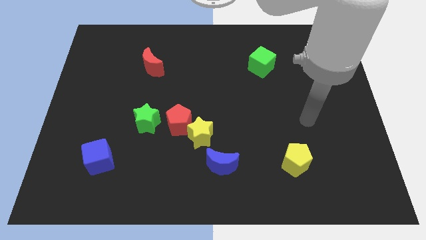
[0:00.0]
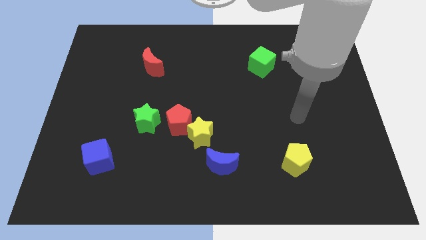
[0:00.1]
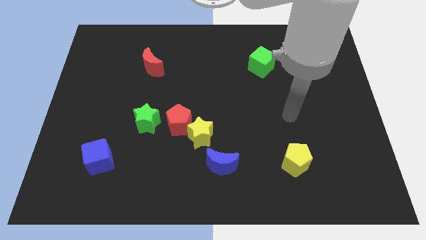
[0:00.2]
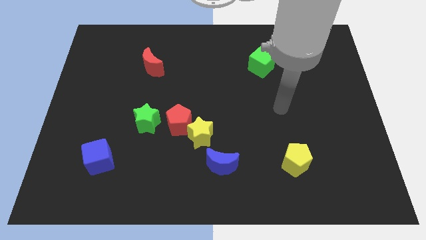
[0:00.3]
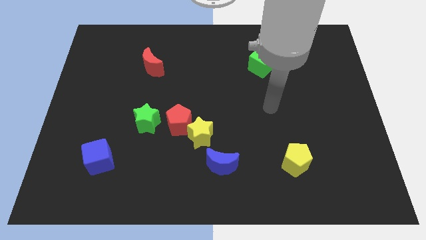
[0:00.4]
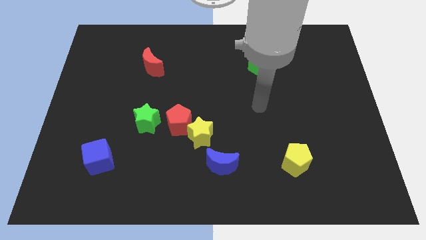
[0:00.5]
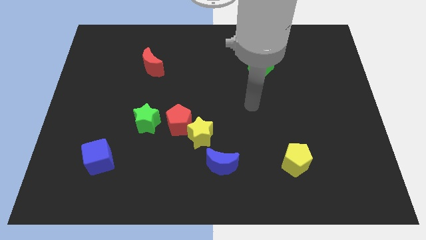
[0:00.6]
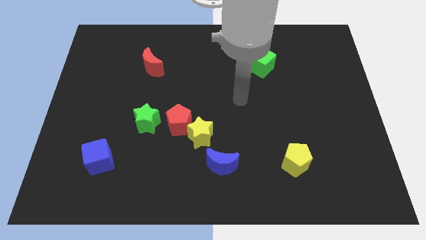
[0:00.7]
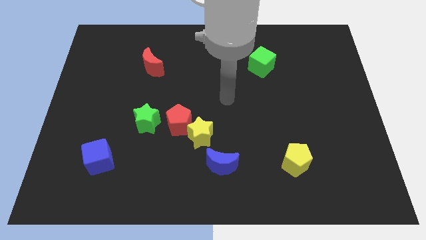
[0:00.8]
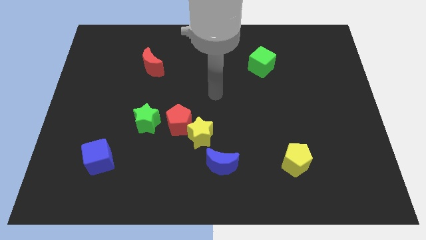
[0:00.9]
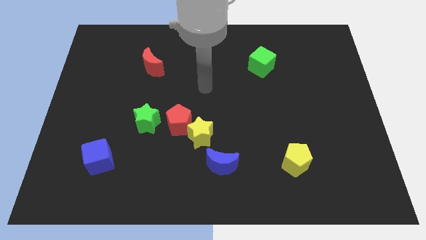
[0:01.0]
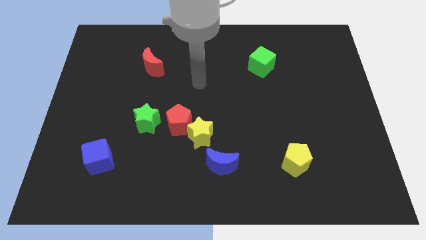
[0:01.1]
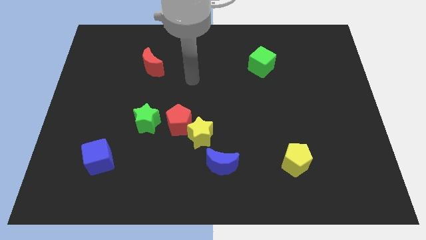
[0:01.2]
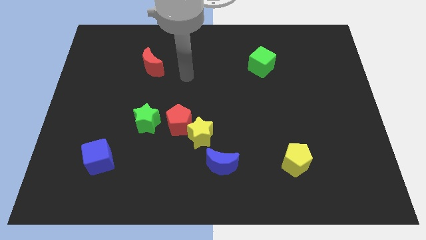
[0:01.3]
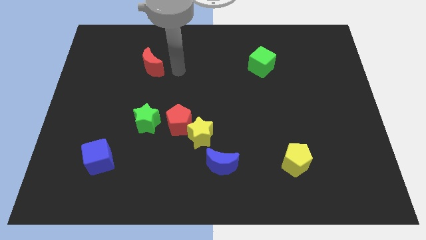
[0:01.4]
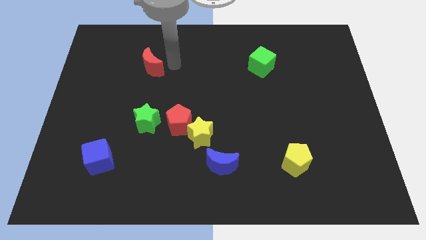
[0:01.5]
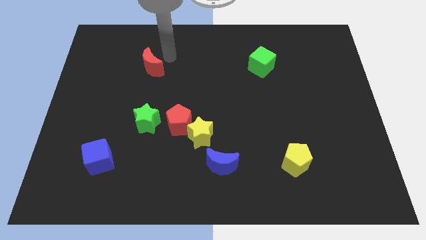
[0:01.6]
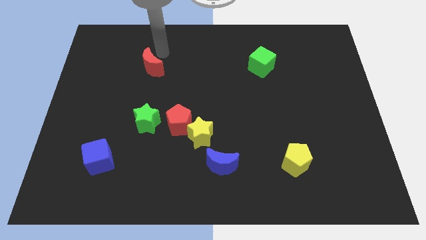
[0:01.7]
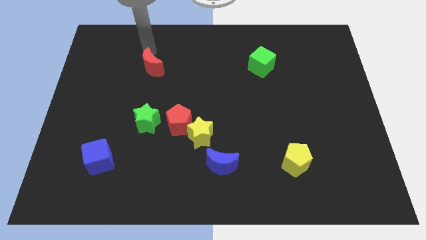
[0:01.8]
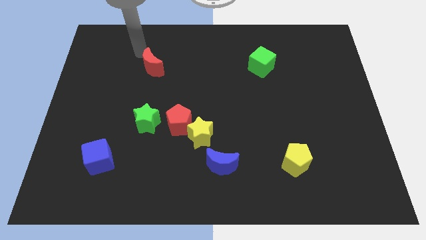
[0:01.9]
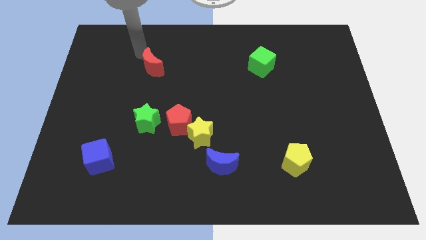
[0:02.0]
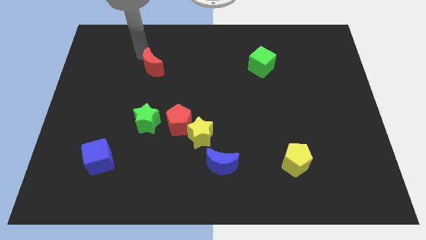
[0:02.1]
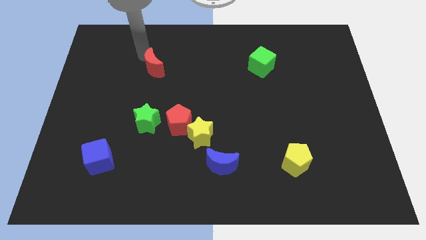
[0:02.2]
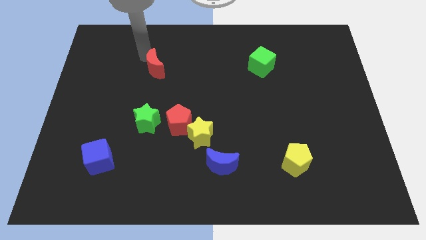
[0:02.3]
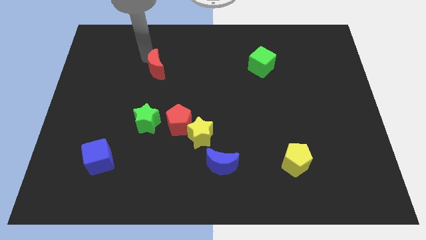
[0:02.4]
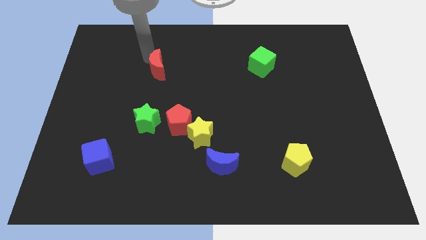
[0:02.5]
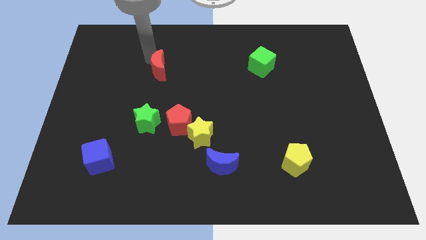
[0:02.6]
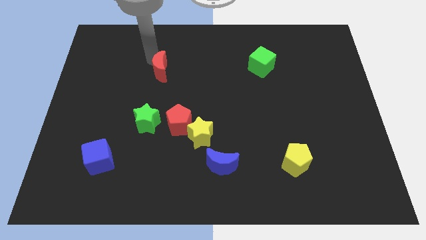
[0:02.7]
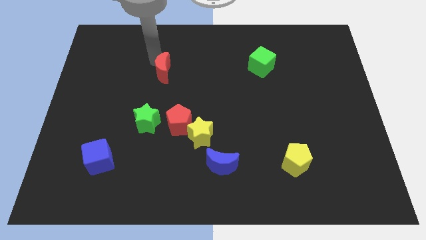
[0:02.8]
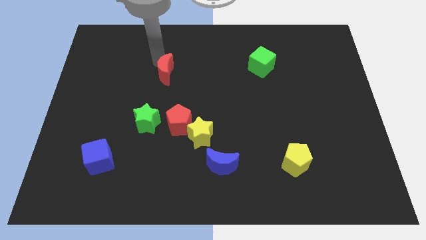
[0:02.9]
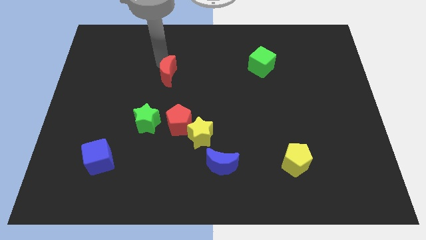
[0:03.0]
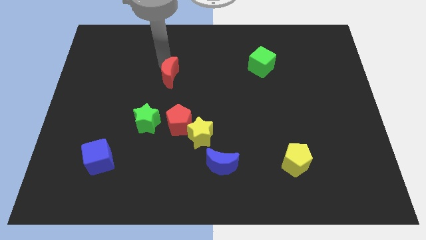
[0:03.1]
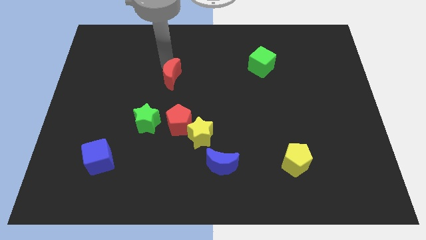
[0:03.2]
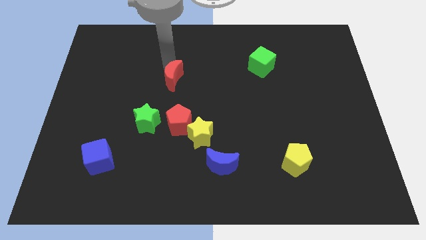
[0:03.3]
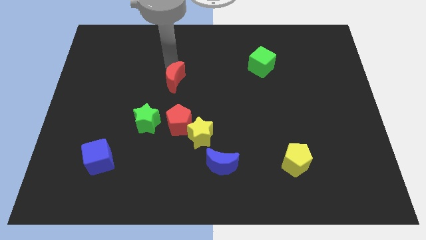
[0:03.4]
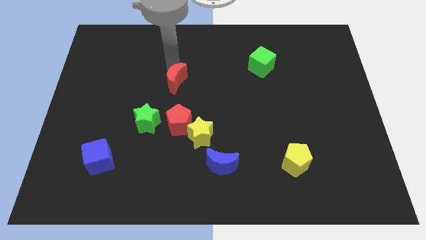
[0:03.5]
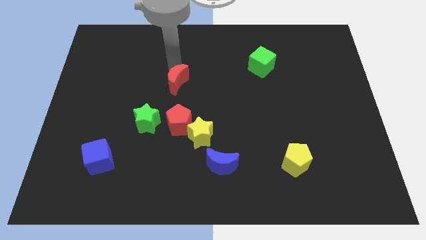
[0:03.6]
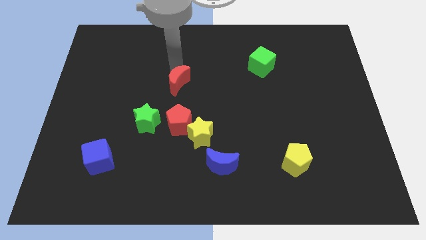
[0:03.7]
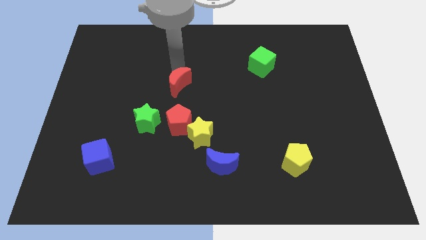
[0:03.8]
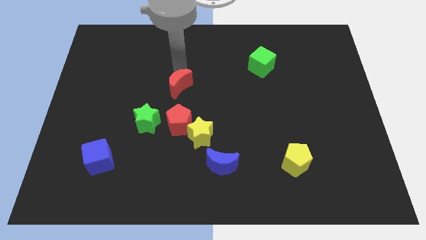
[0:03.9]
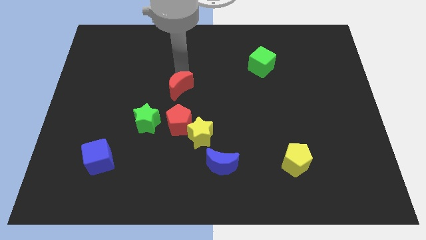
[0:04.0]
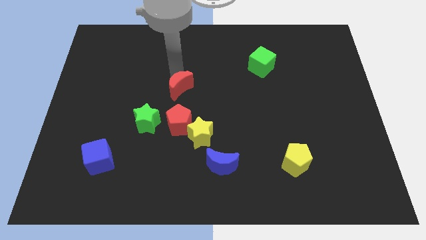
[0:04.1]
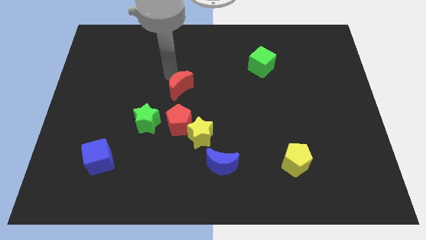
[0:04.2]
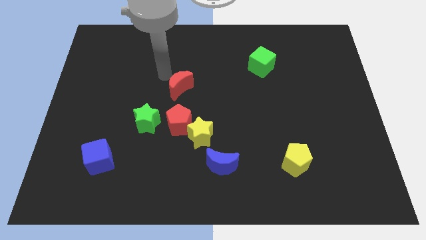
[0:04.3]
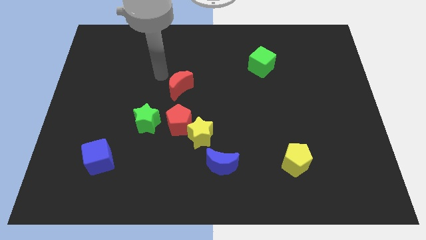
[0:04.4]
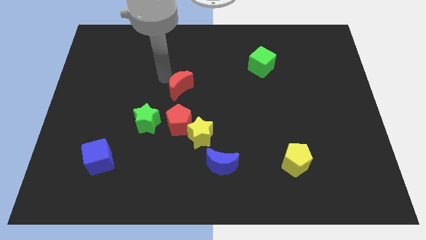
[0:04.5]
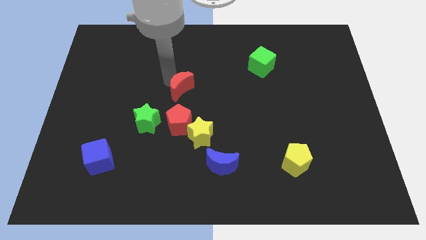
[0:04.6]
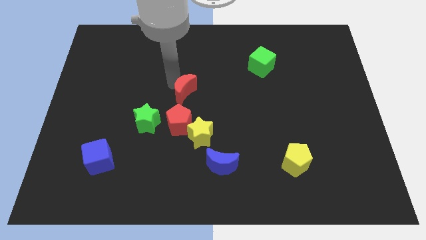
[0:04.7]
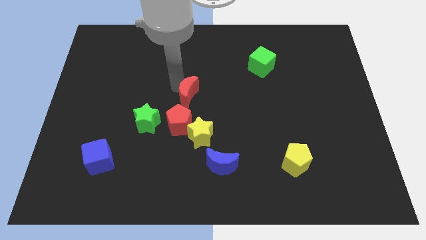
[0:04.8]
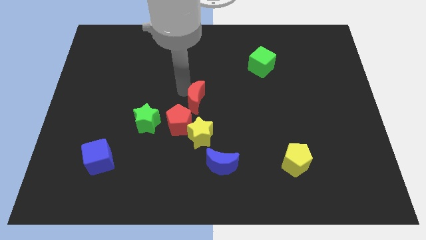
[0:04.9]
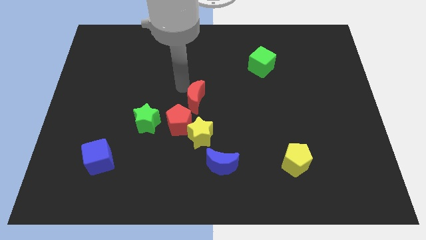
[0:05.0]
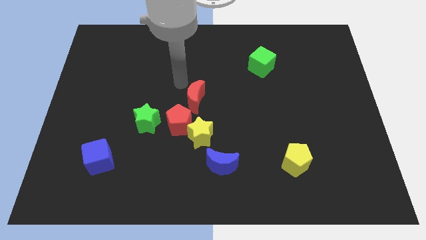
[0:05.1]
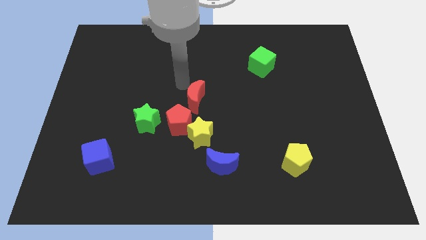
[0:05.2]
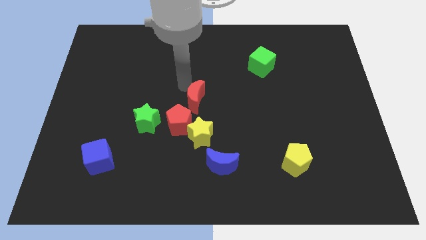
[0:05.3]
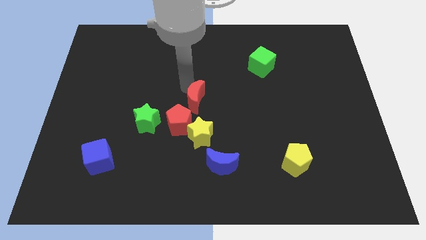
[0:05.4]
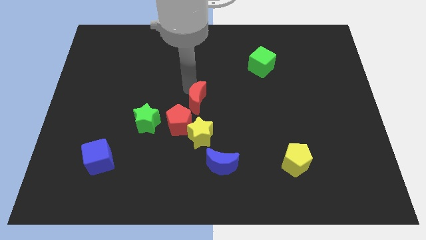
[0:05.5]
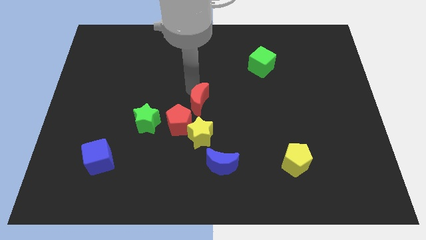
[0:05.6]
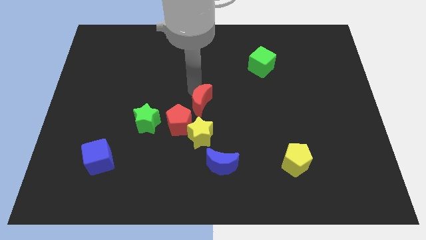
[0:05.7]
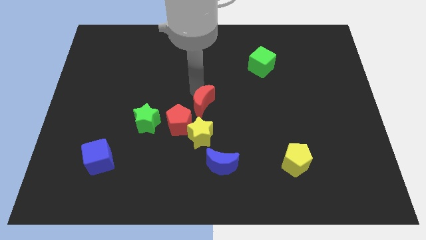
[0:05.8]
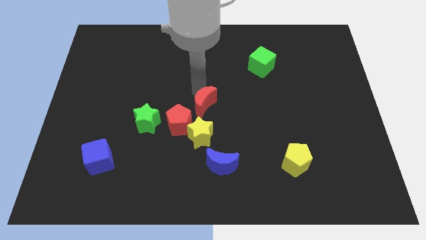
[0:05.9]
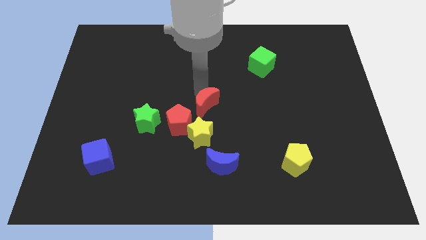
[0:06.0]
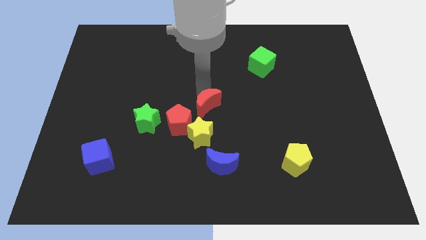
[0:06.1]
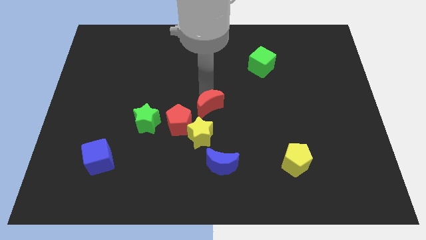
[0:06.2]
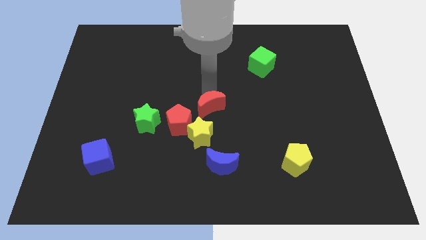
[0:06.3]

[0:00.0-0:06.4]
push the red moon downwards and then to the right

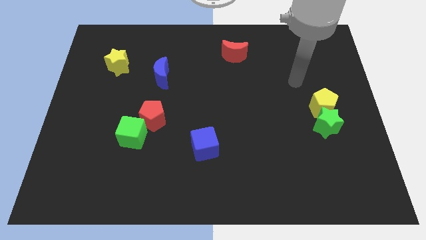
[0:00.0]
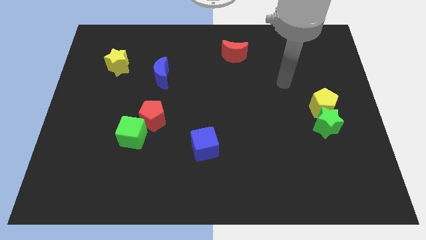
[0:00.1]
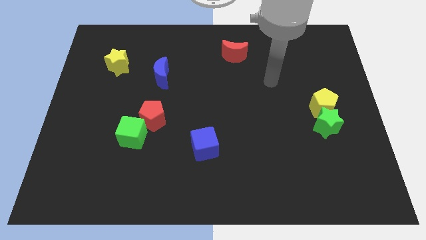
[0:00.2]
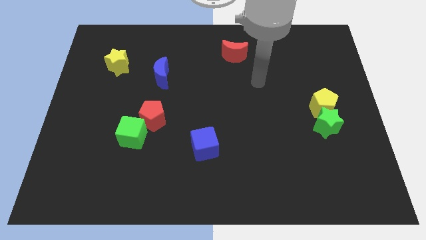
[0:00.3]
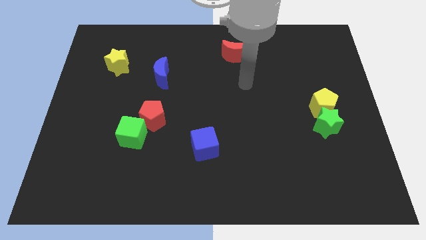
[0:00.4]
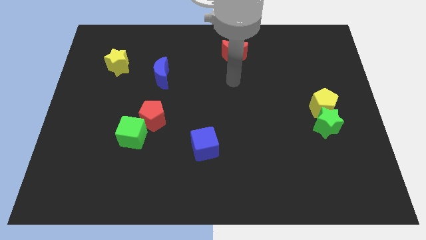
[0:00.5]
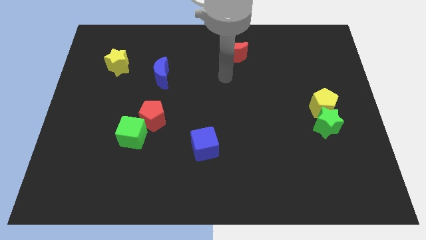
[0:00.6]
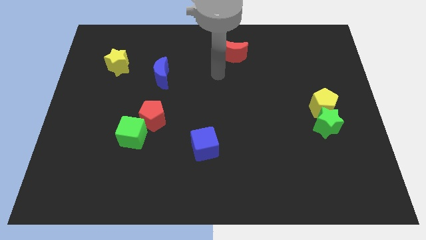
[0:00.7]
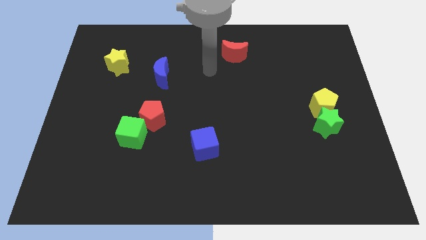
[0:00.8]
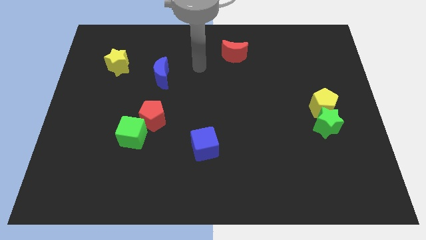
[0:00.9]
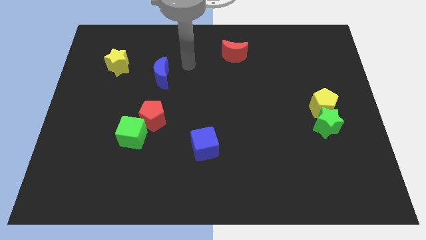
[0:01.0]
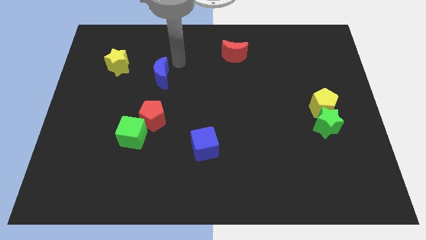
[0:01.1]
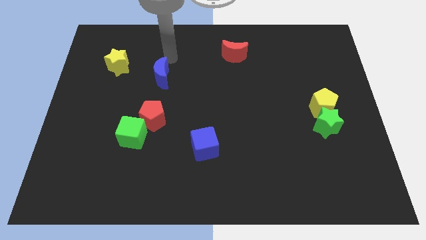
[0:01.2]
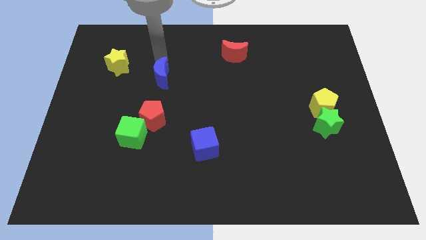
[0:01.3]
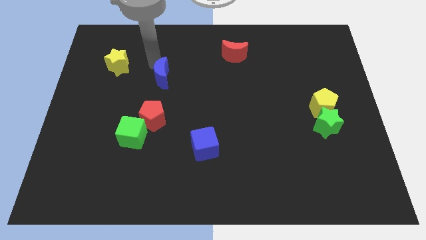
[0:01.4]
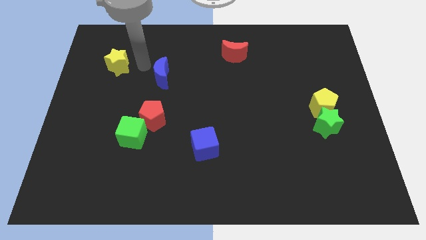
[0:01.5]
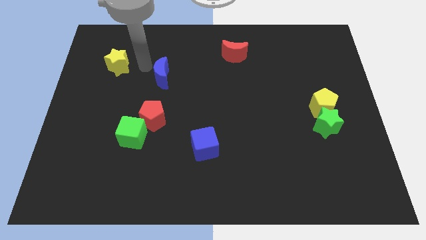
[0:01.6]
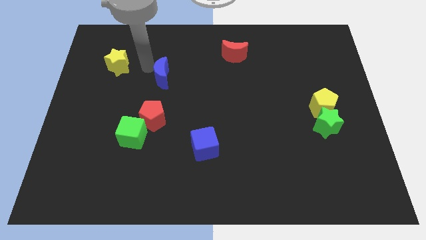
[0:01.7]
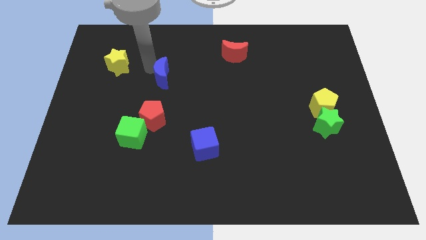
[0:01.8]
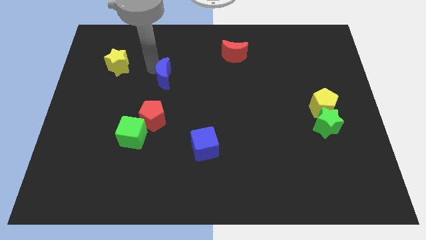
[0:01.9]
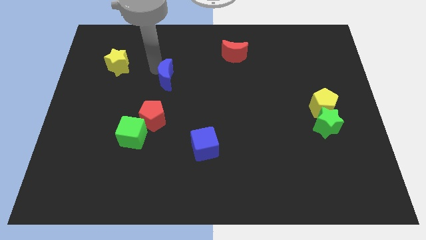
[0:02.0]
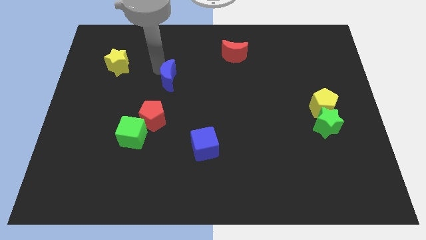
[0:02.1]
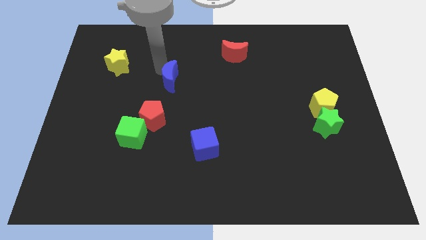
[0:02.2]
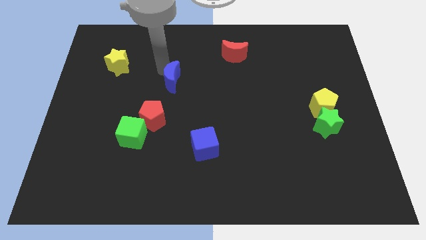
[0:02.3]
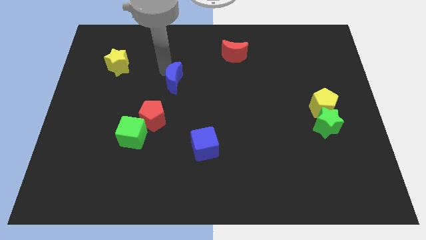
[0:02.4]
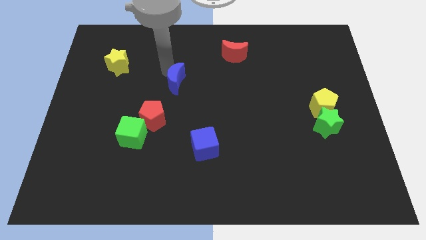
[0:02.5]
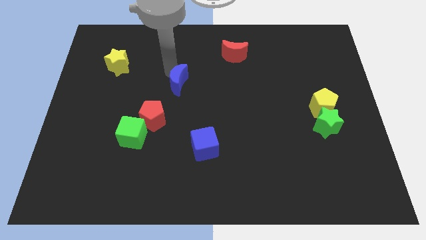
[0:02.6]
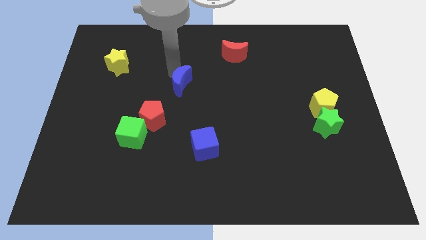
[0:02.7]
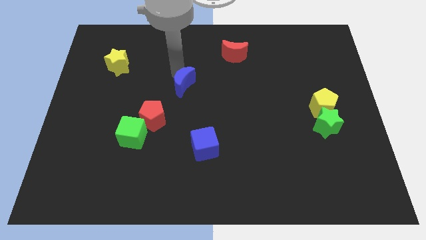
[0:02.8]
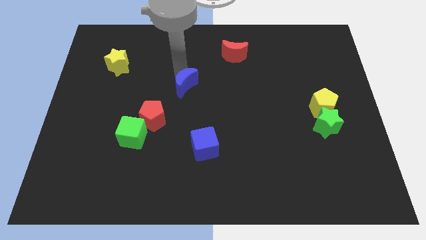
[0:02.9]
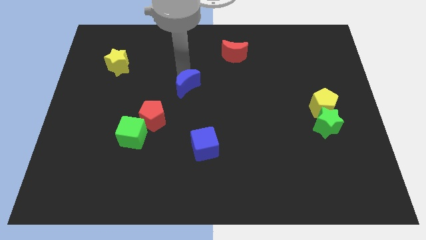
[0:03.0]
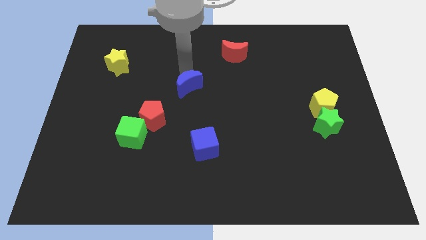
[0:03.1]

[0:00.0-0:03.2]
push the blue moon a little down and to the right diagonally
